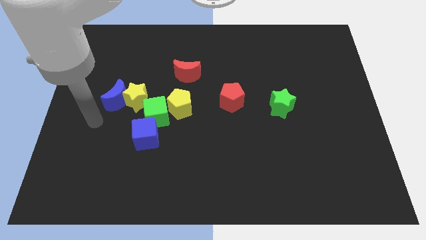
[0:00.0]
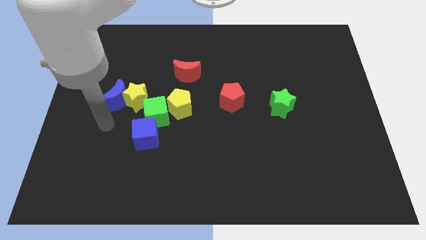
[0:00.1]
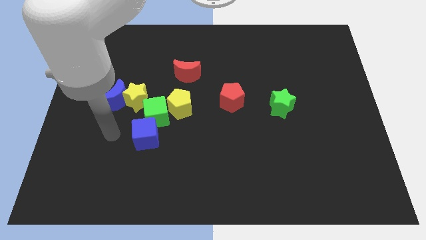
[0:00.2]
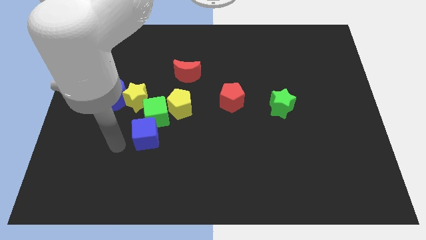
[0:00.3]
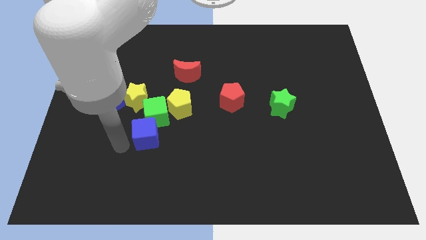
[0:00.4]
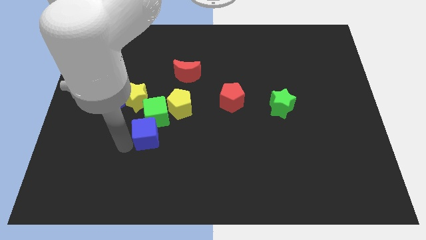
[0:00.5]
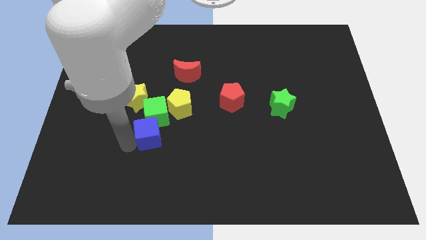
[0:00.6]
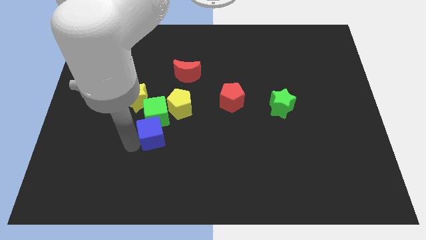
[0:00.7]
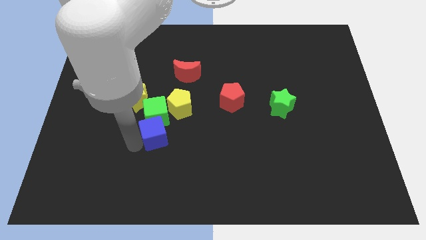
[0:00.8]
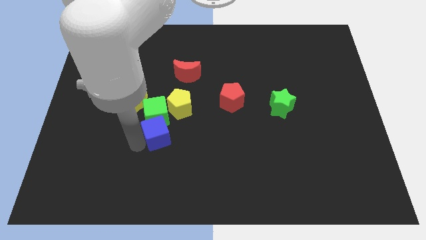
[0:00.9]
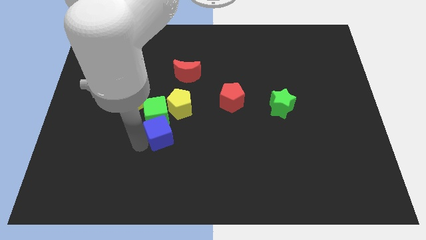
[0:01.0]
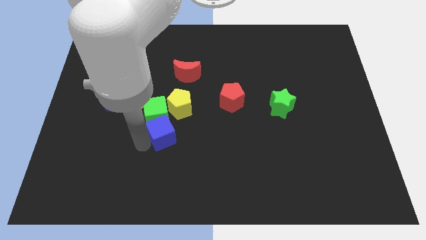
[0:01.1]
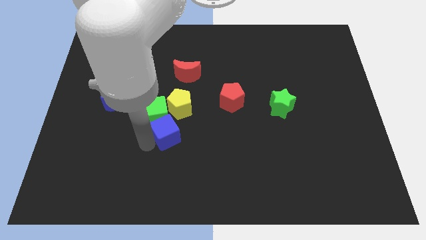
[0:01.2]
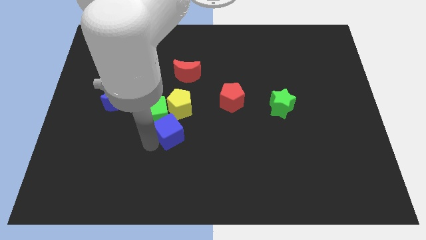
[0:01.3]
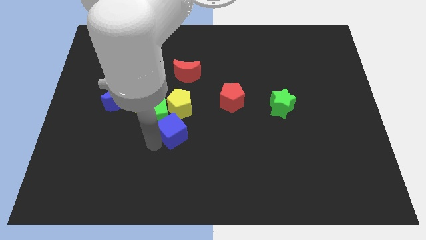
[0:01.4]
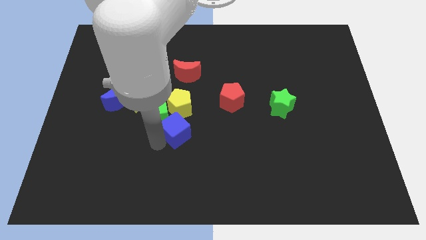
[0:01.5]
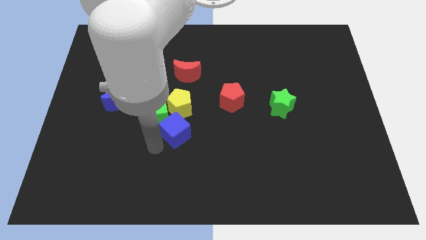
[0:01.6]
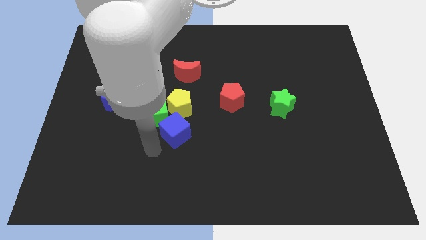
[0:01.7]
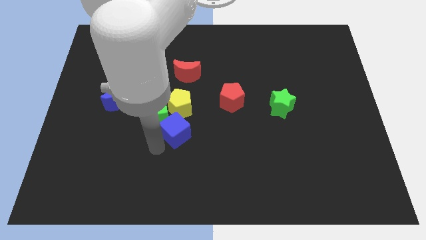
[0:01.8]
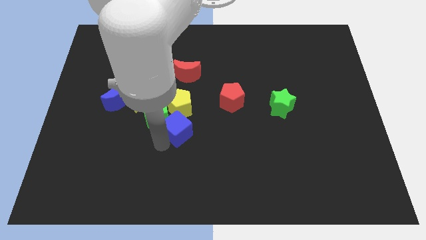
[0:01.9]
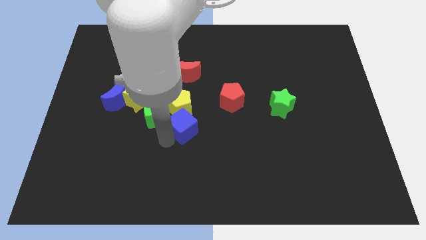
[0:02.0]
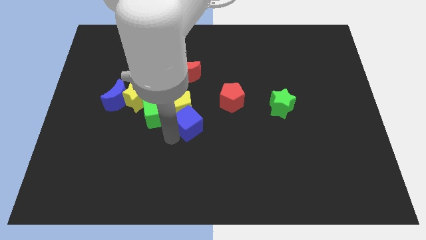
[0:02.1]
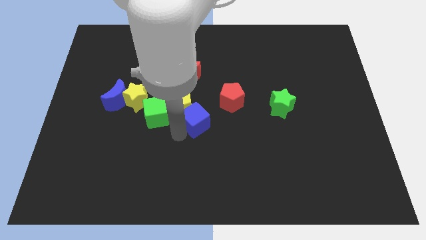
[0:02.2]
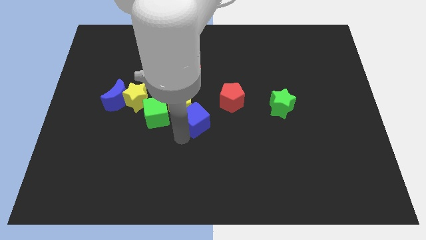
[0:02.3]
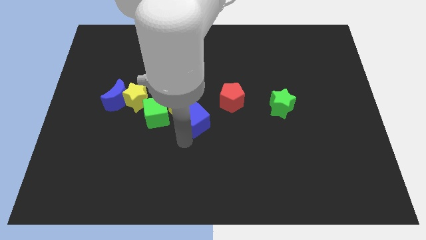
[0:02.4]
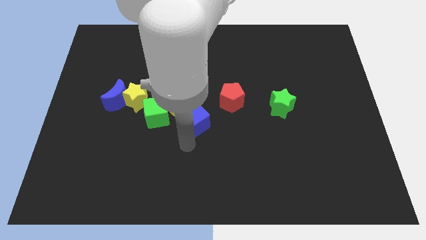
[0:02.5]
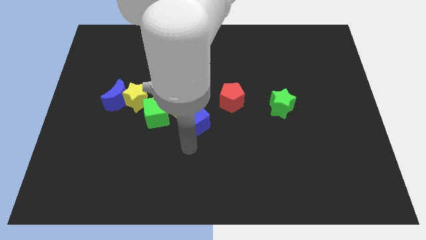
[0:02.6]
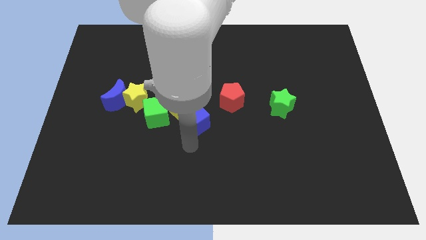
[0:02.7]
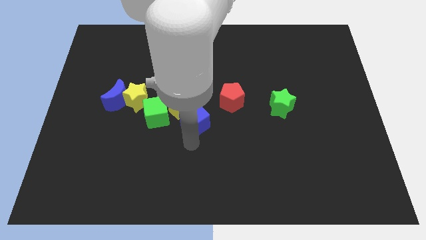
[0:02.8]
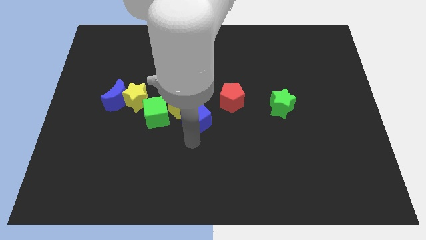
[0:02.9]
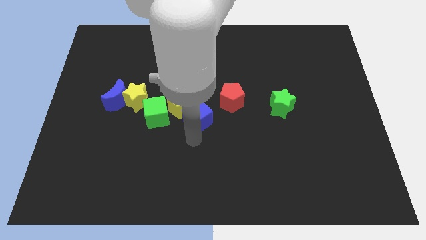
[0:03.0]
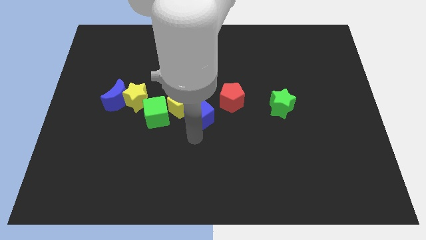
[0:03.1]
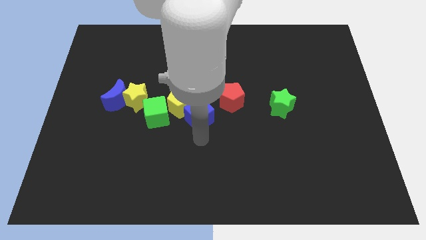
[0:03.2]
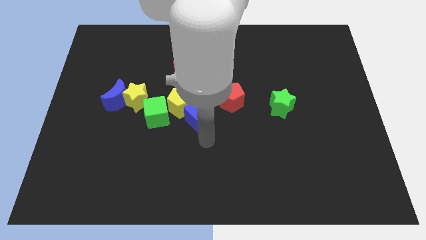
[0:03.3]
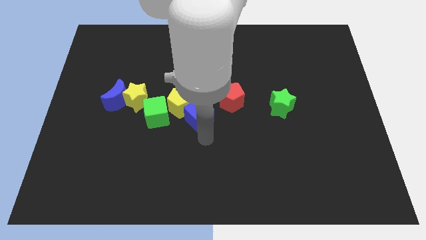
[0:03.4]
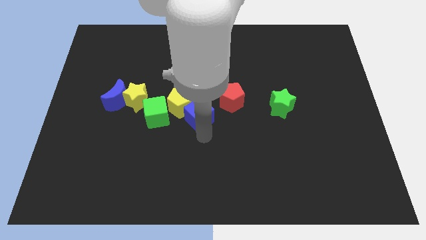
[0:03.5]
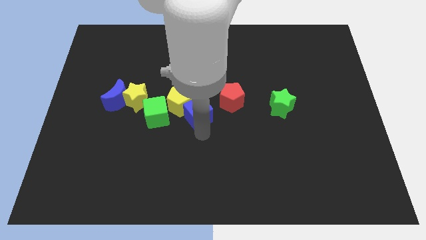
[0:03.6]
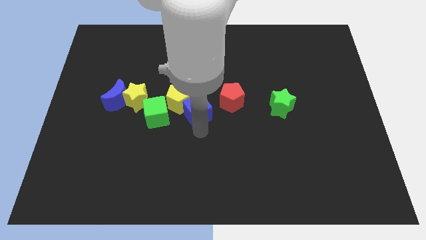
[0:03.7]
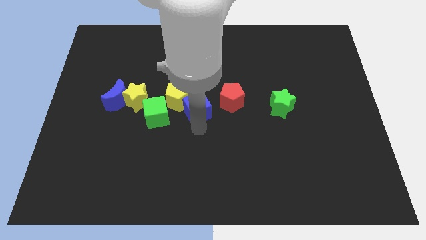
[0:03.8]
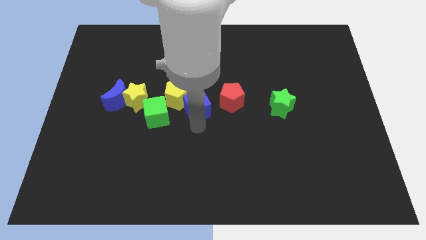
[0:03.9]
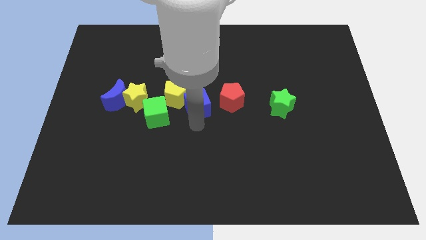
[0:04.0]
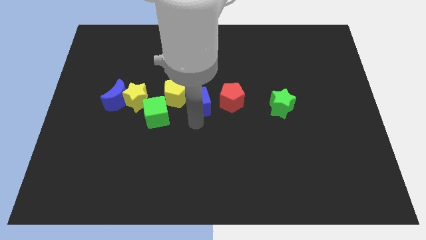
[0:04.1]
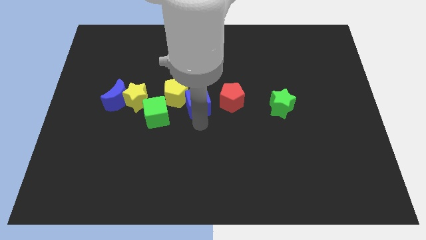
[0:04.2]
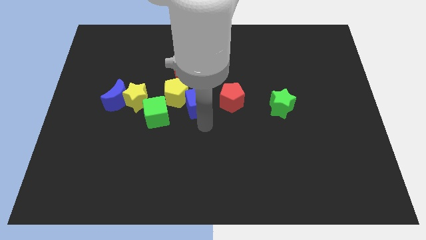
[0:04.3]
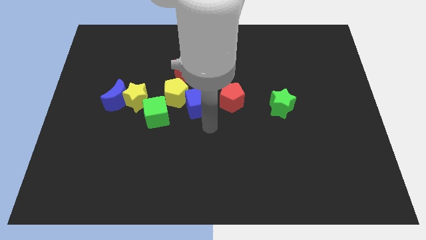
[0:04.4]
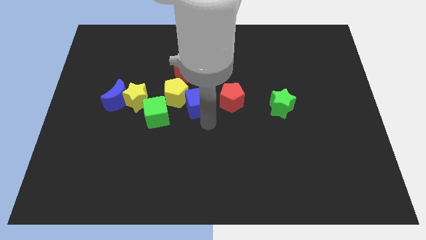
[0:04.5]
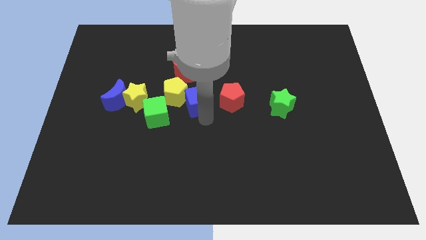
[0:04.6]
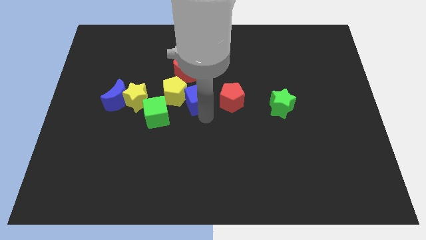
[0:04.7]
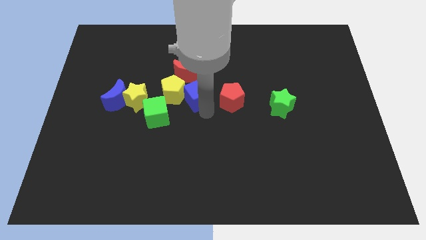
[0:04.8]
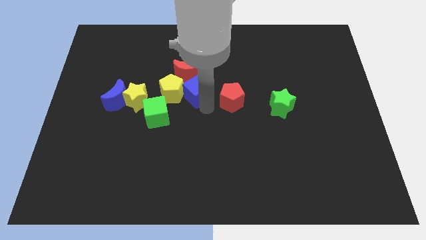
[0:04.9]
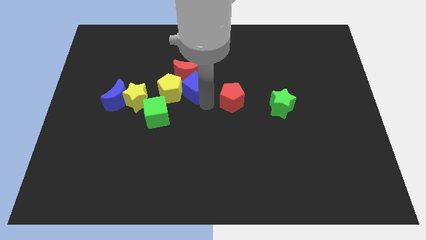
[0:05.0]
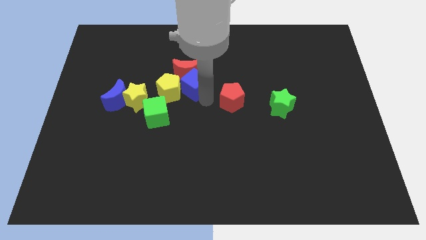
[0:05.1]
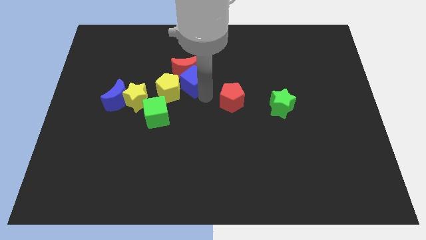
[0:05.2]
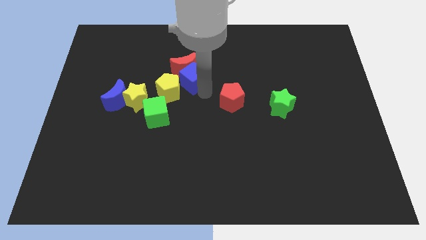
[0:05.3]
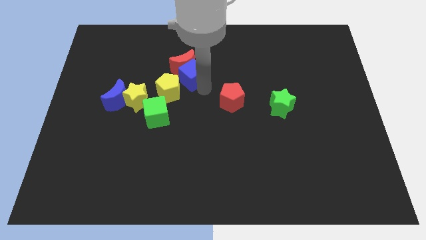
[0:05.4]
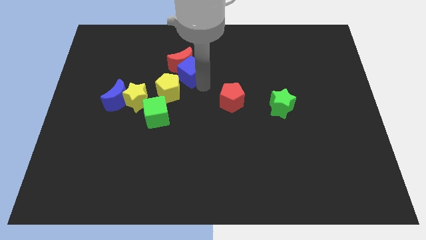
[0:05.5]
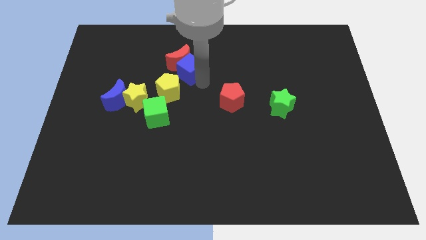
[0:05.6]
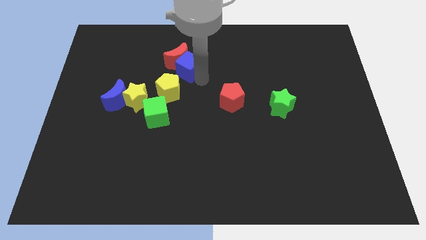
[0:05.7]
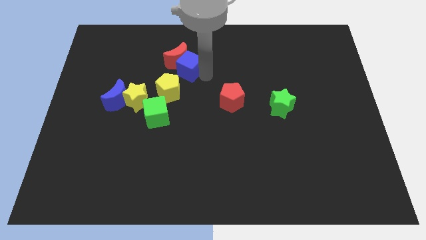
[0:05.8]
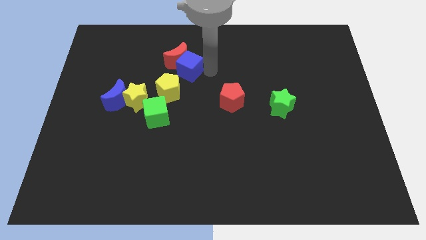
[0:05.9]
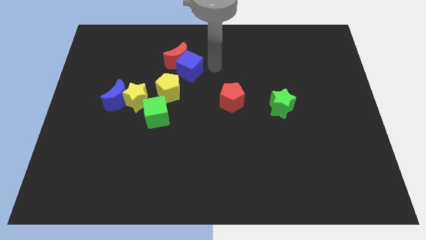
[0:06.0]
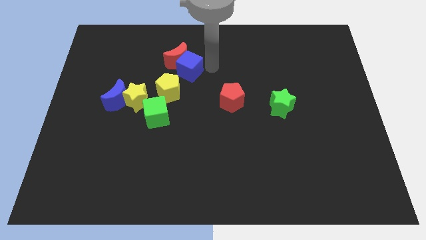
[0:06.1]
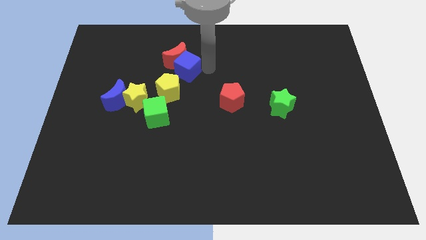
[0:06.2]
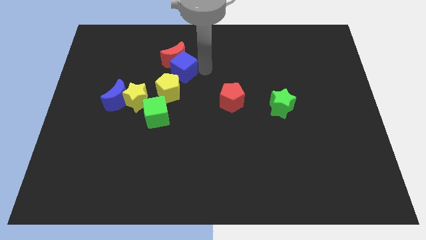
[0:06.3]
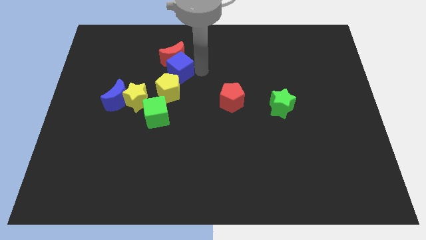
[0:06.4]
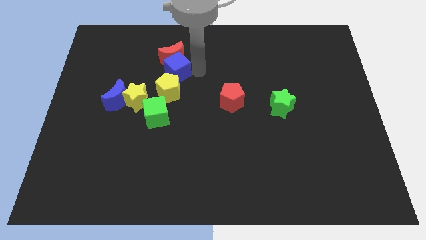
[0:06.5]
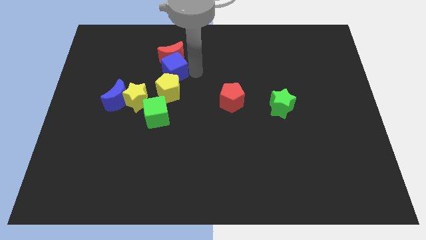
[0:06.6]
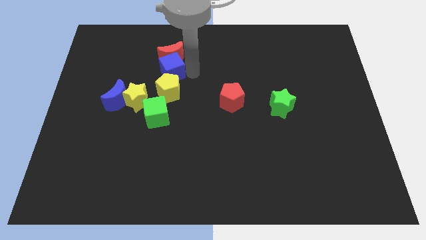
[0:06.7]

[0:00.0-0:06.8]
put the blue cube diagonally up and to the left of the yellow pentagon

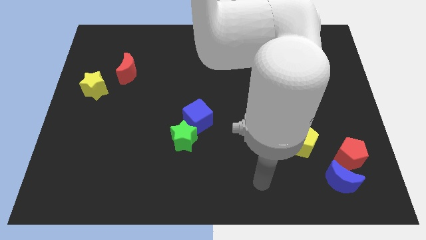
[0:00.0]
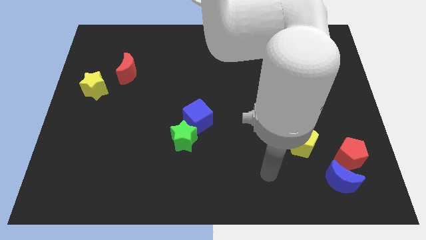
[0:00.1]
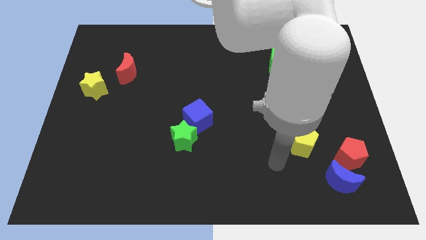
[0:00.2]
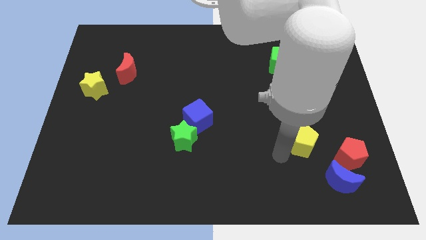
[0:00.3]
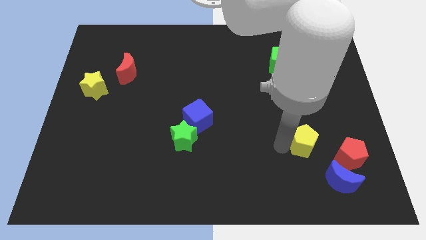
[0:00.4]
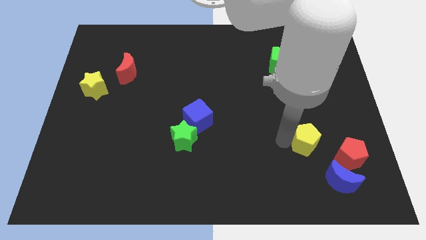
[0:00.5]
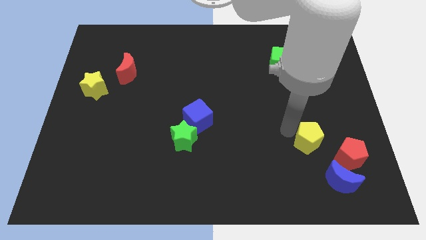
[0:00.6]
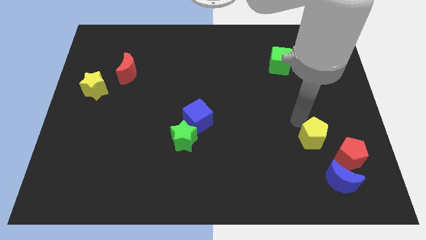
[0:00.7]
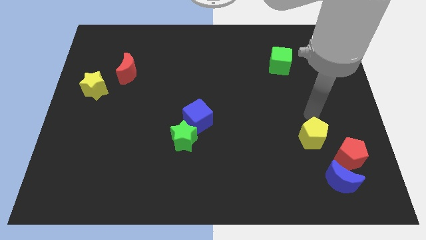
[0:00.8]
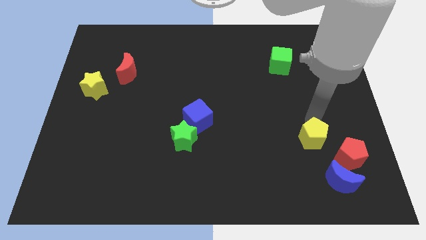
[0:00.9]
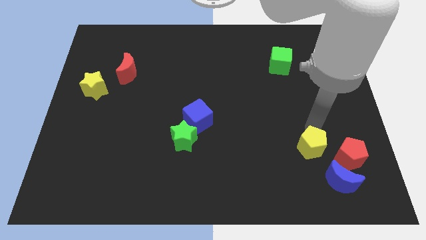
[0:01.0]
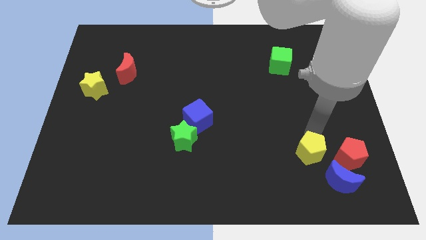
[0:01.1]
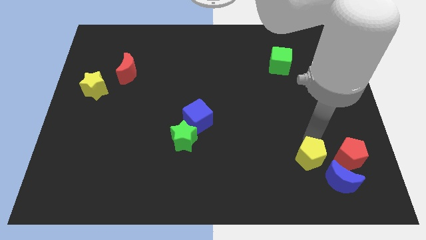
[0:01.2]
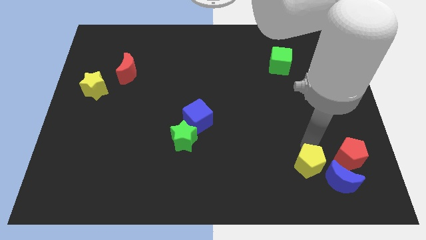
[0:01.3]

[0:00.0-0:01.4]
slide the yellow pentagon to the bottom left side of the red pentagon
